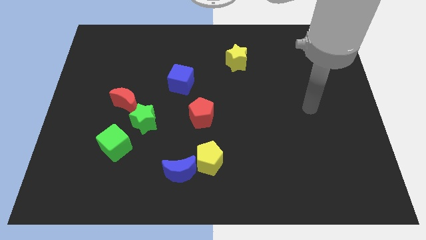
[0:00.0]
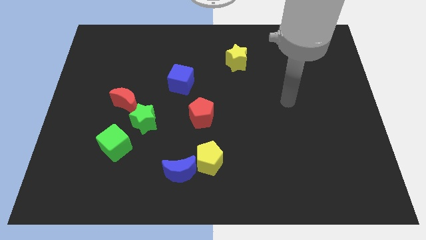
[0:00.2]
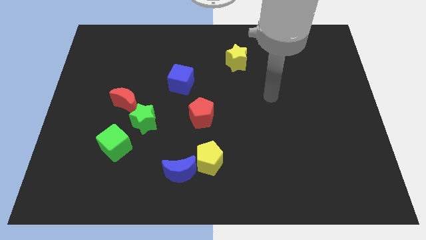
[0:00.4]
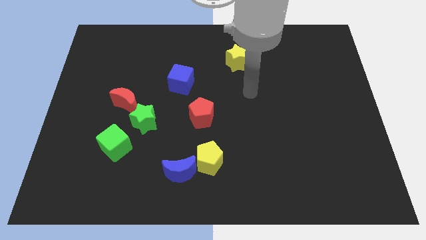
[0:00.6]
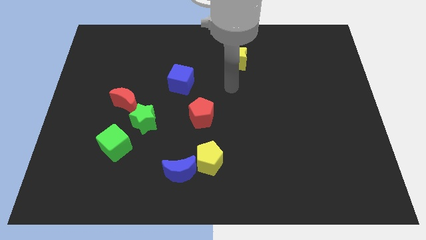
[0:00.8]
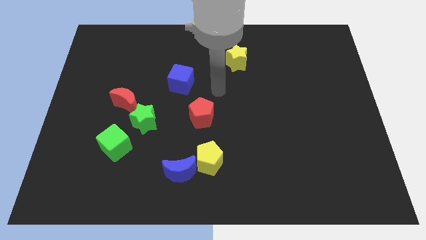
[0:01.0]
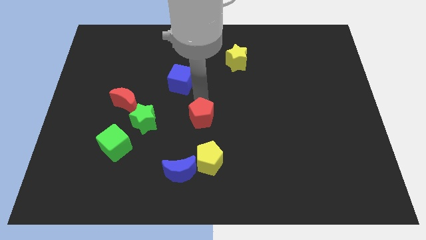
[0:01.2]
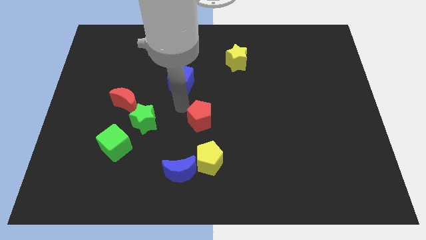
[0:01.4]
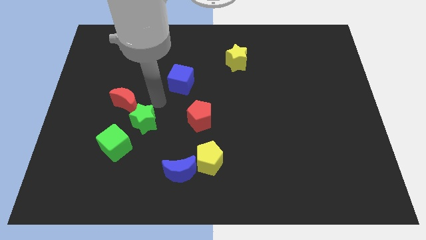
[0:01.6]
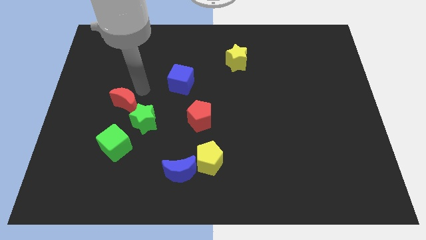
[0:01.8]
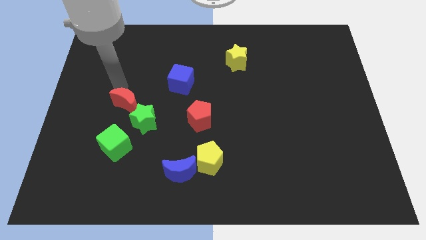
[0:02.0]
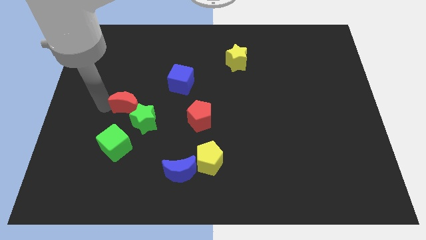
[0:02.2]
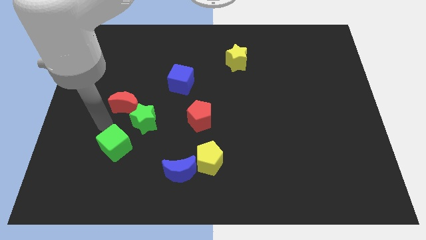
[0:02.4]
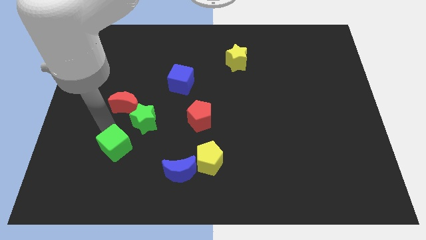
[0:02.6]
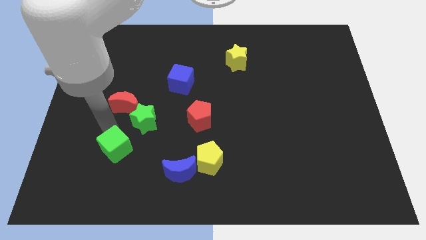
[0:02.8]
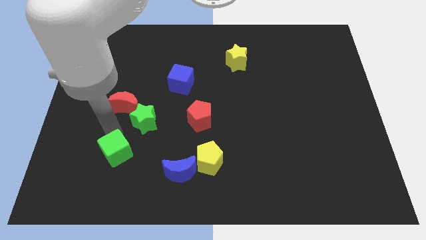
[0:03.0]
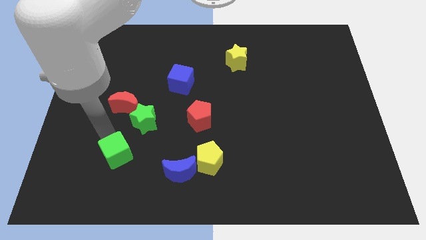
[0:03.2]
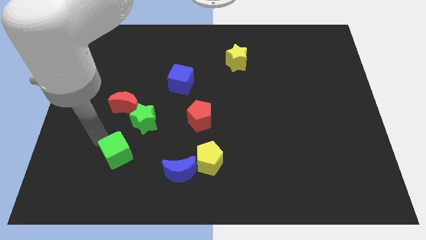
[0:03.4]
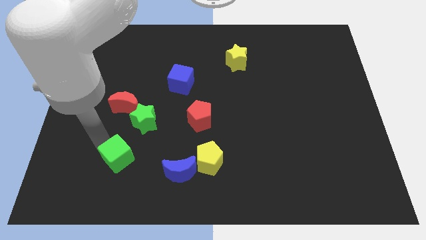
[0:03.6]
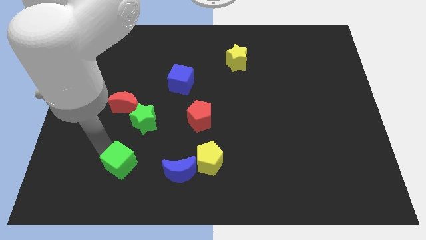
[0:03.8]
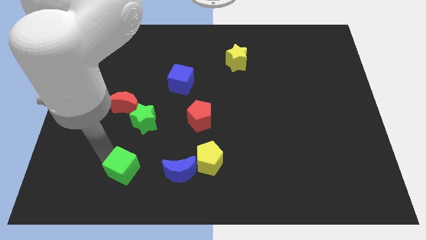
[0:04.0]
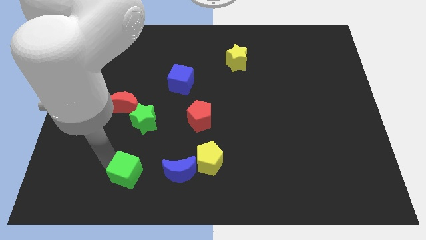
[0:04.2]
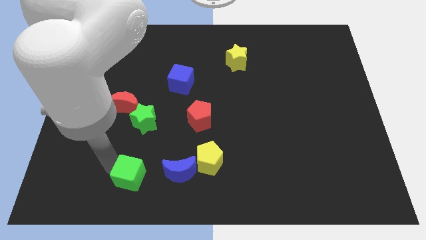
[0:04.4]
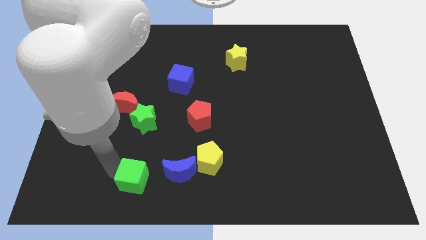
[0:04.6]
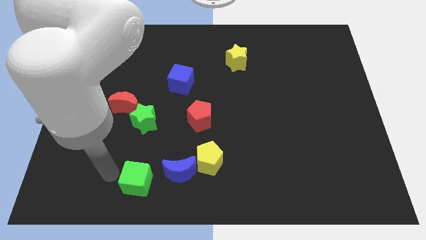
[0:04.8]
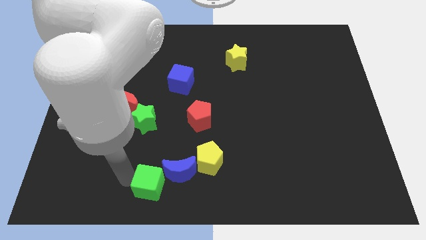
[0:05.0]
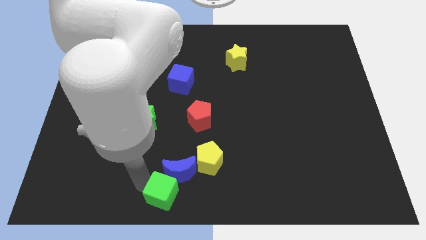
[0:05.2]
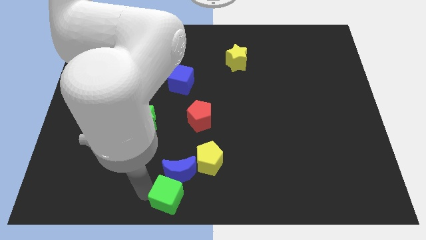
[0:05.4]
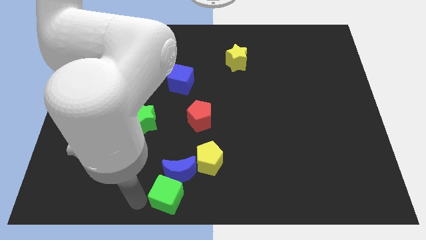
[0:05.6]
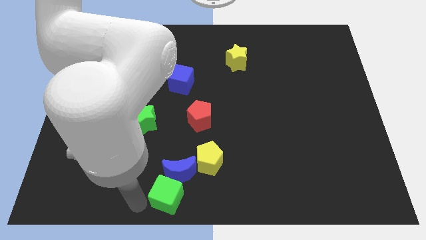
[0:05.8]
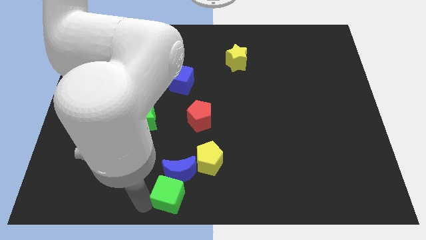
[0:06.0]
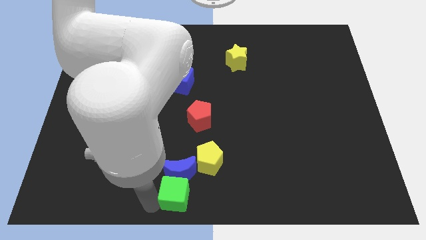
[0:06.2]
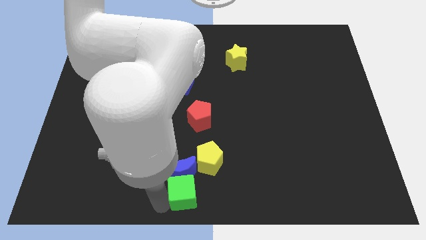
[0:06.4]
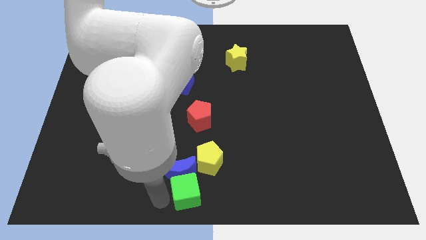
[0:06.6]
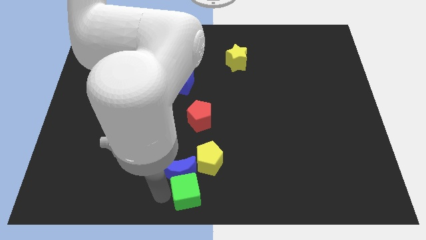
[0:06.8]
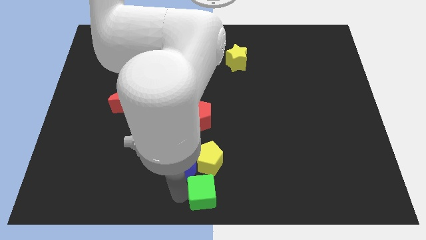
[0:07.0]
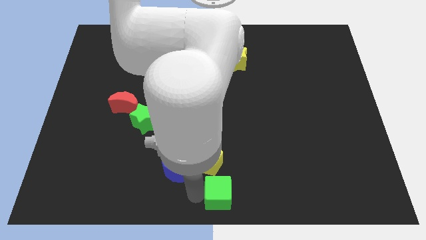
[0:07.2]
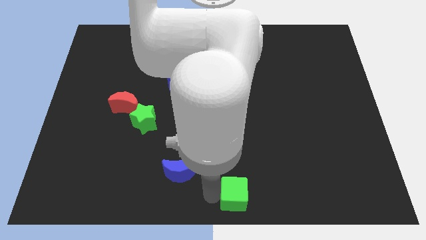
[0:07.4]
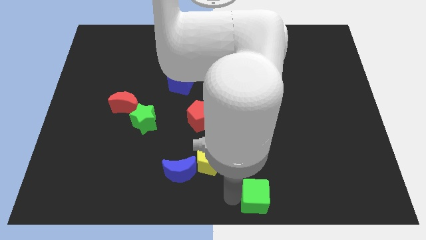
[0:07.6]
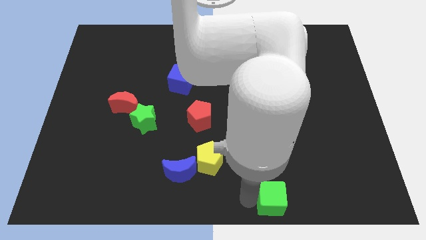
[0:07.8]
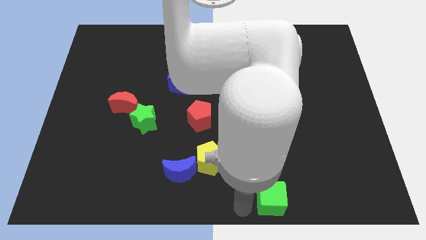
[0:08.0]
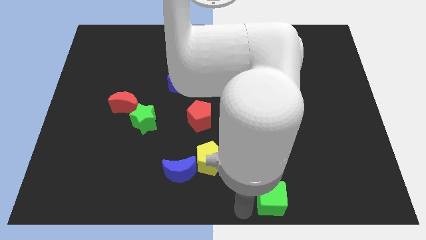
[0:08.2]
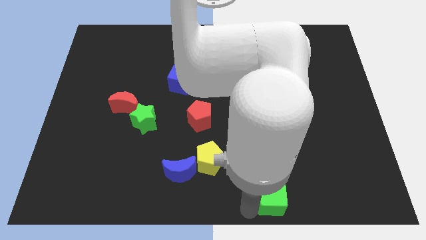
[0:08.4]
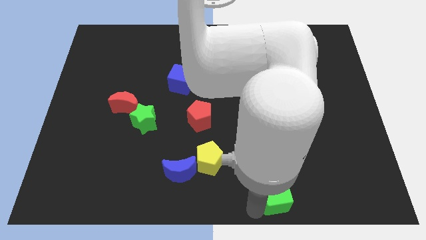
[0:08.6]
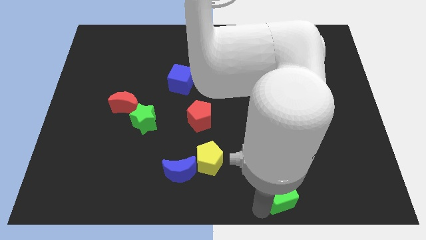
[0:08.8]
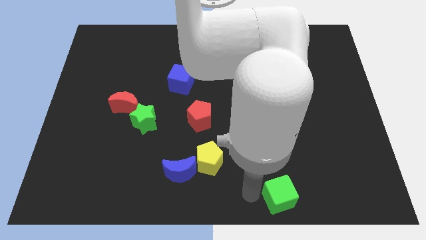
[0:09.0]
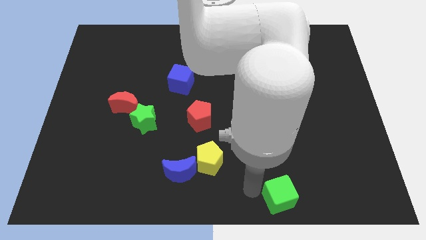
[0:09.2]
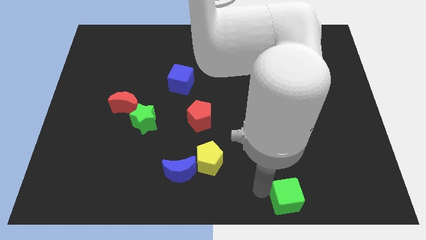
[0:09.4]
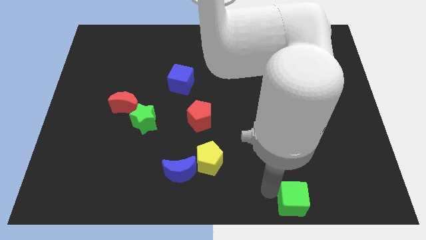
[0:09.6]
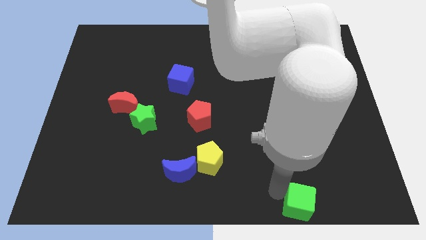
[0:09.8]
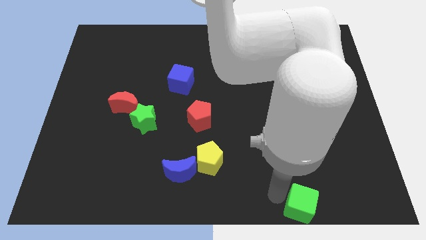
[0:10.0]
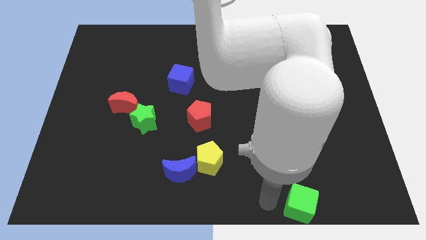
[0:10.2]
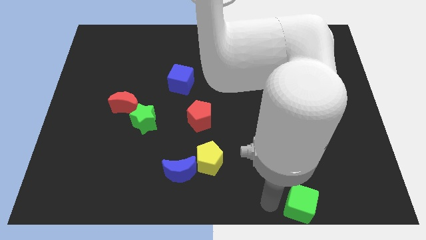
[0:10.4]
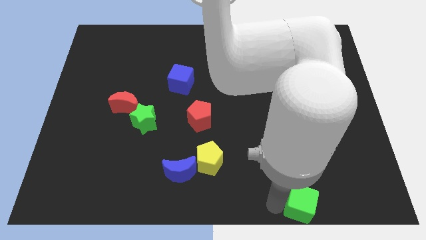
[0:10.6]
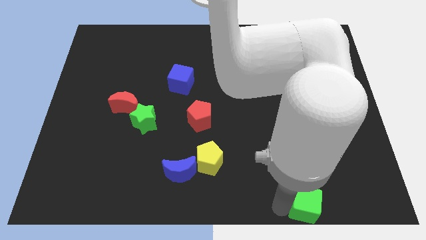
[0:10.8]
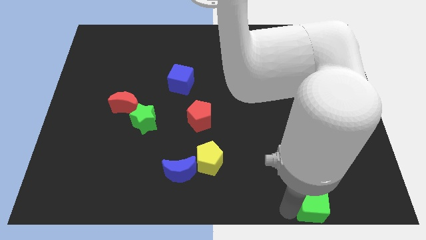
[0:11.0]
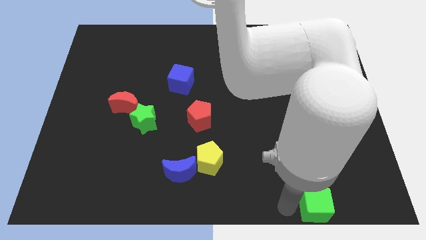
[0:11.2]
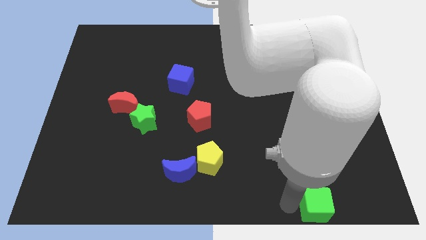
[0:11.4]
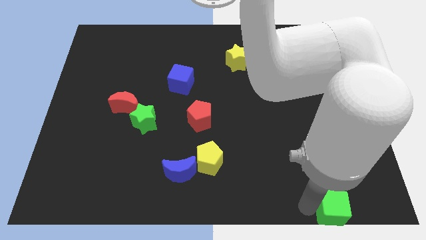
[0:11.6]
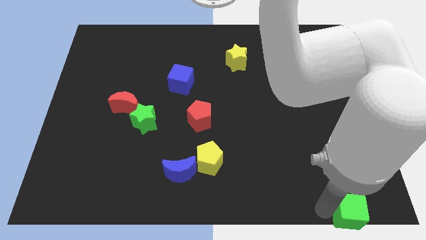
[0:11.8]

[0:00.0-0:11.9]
put the green cube to the lower right corner

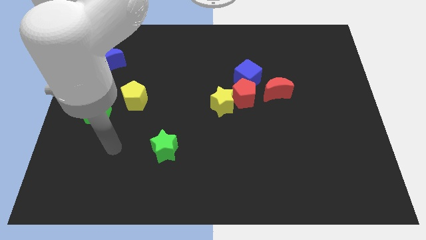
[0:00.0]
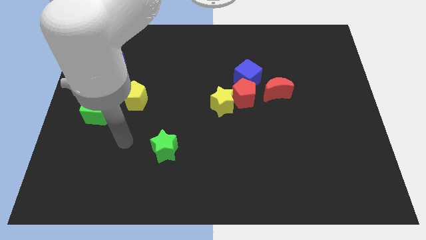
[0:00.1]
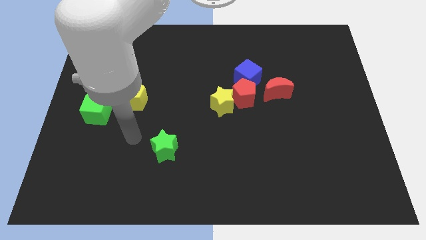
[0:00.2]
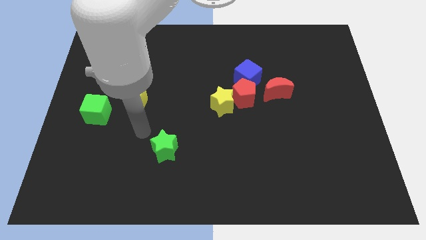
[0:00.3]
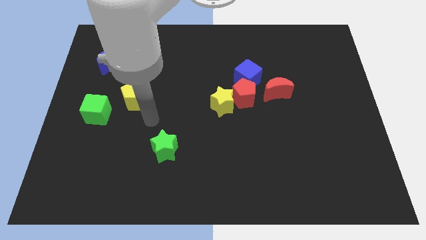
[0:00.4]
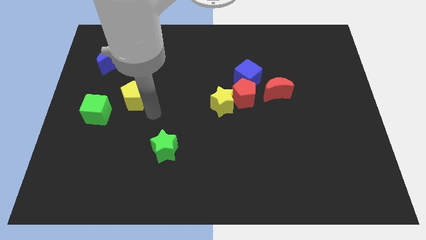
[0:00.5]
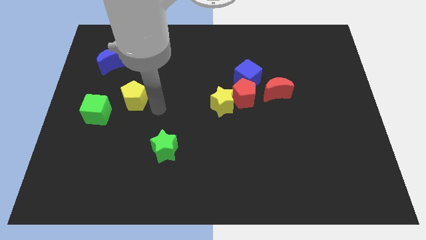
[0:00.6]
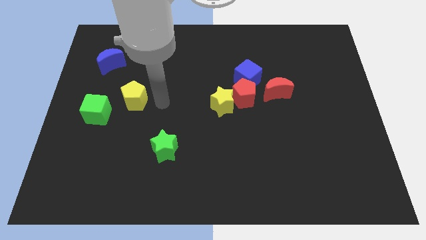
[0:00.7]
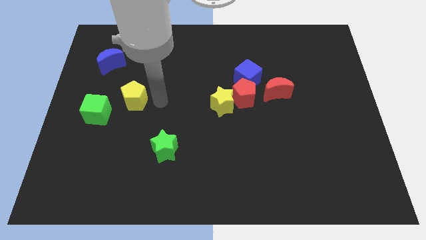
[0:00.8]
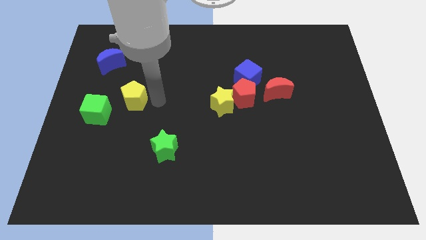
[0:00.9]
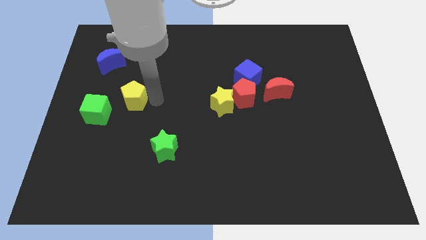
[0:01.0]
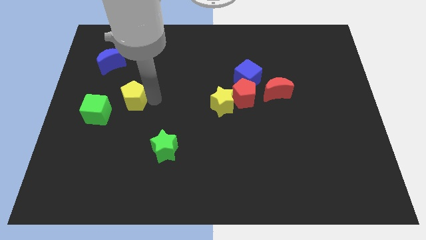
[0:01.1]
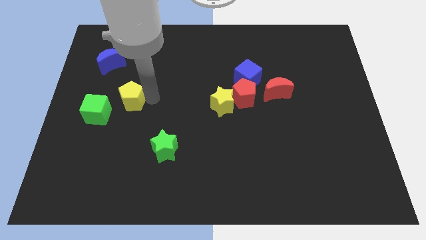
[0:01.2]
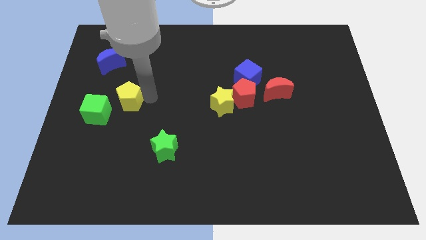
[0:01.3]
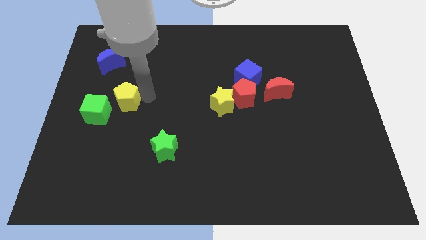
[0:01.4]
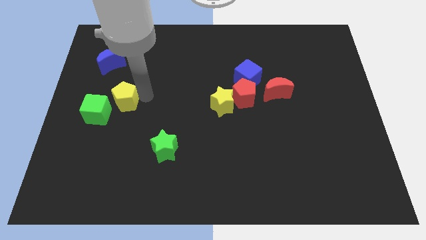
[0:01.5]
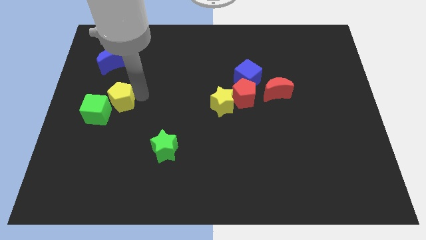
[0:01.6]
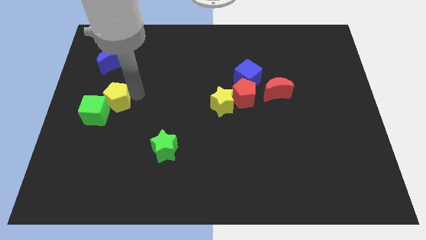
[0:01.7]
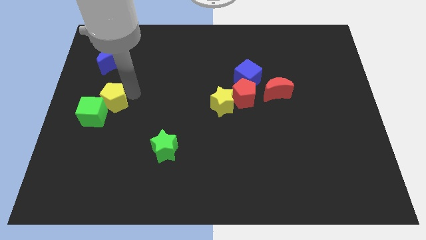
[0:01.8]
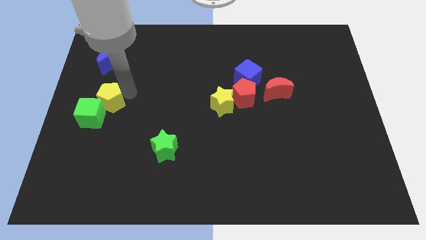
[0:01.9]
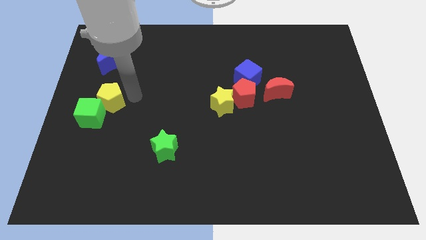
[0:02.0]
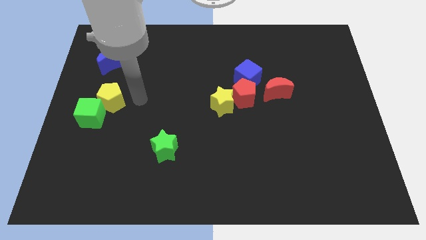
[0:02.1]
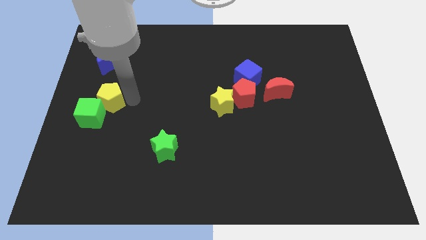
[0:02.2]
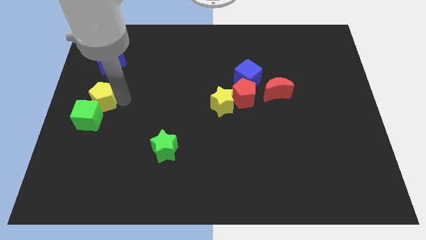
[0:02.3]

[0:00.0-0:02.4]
slide the yellow pentagon to the left side of the board
